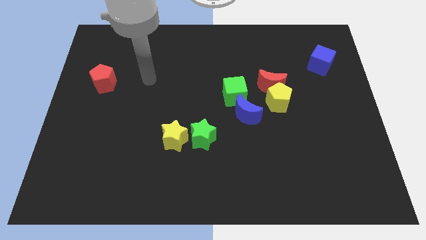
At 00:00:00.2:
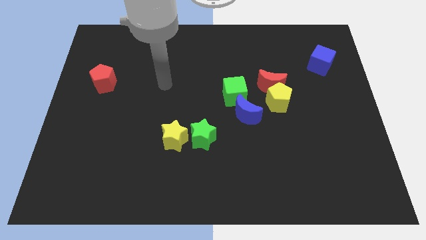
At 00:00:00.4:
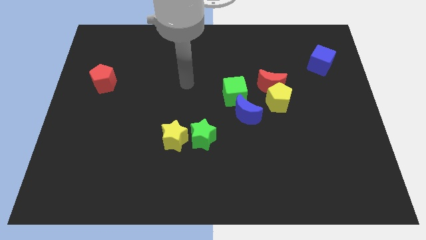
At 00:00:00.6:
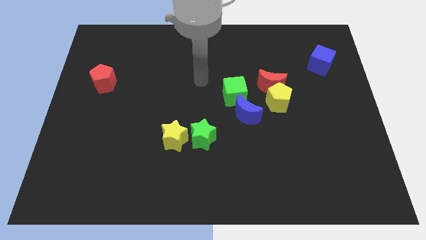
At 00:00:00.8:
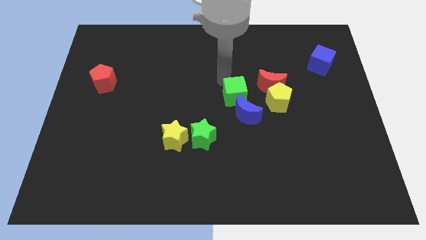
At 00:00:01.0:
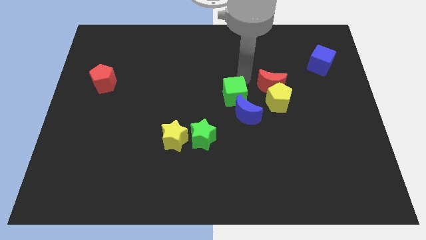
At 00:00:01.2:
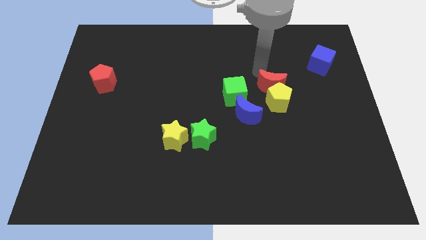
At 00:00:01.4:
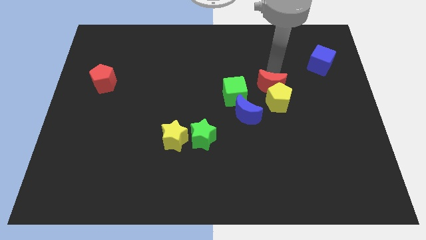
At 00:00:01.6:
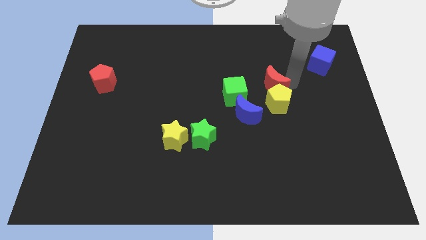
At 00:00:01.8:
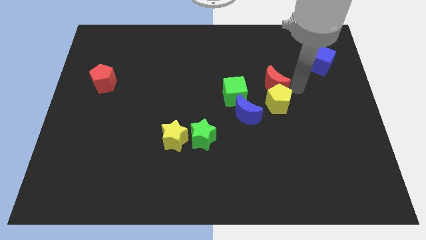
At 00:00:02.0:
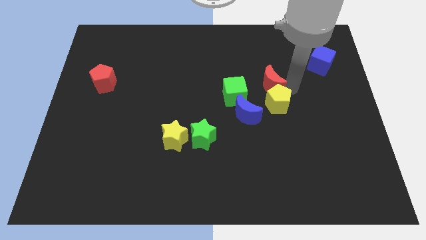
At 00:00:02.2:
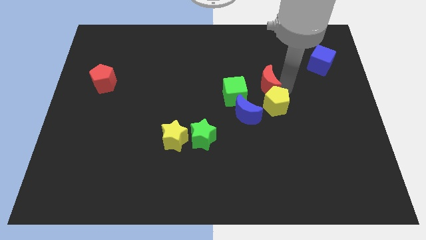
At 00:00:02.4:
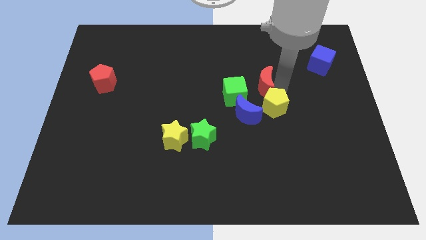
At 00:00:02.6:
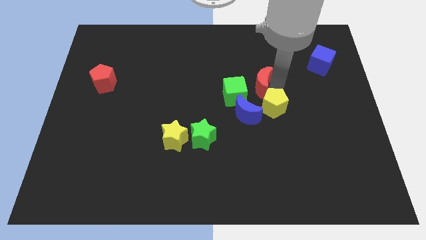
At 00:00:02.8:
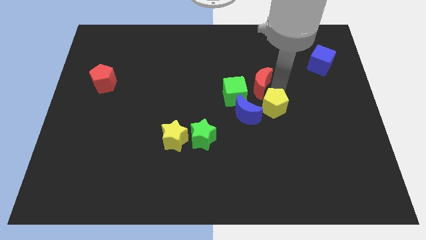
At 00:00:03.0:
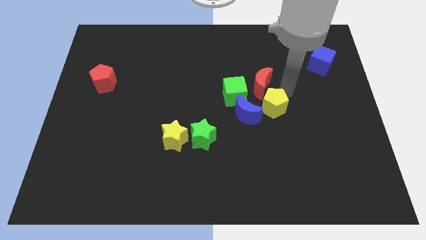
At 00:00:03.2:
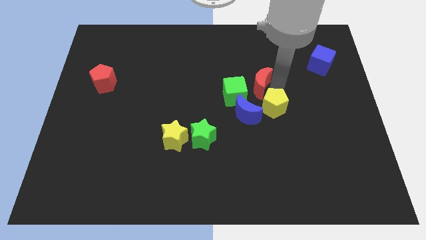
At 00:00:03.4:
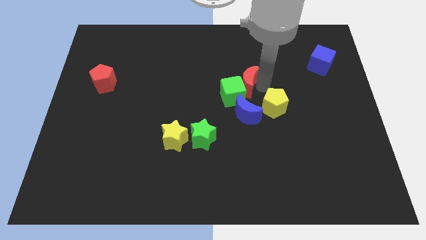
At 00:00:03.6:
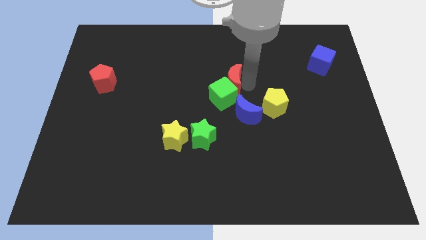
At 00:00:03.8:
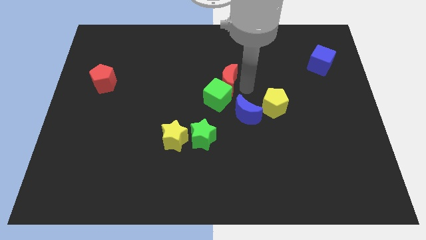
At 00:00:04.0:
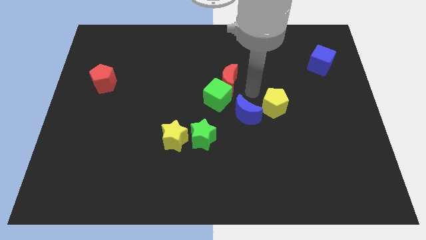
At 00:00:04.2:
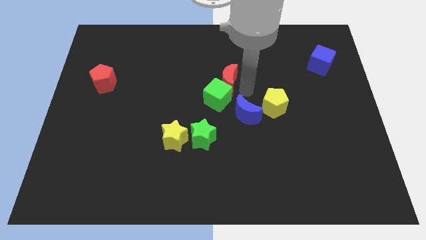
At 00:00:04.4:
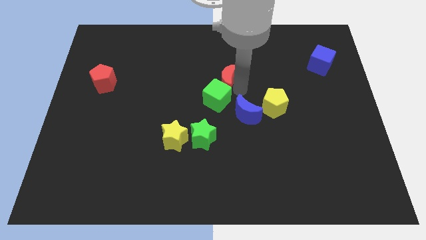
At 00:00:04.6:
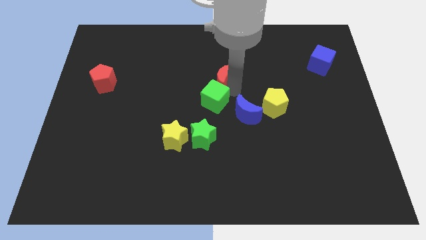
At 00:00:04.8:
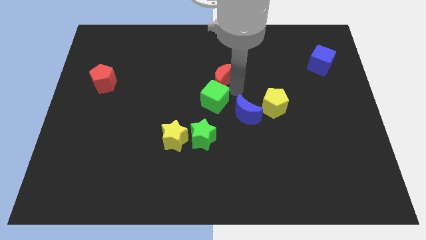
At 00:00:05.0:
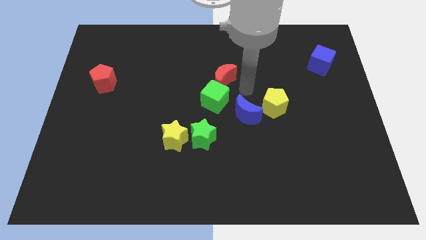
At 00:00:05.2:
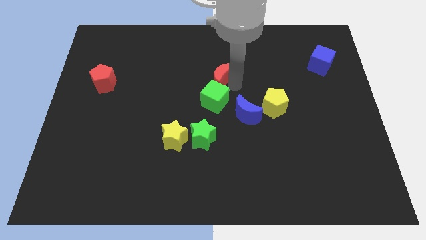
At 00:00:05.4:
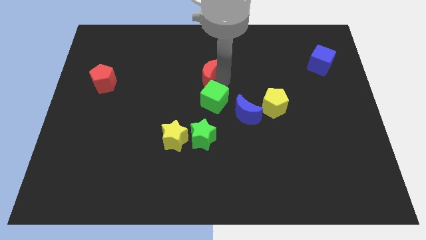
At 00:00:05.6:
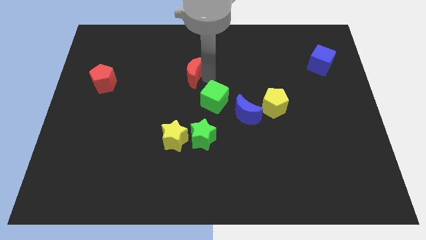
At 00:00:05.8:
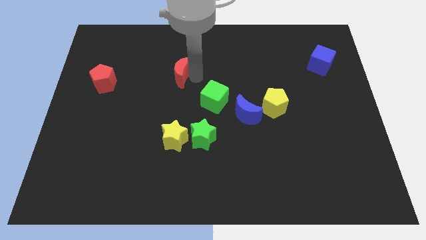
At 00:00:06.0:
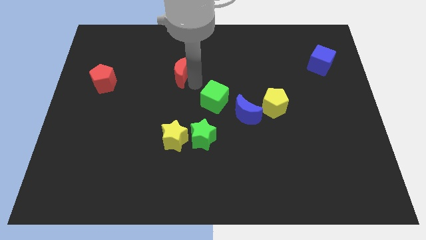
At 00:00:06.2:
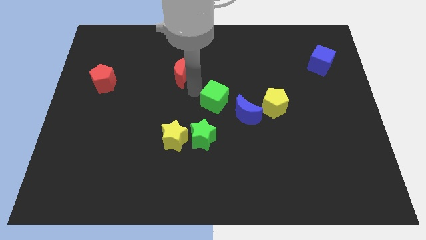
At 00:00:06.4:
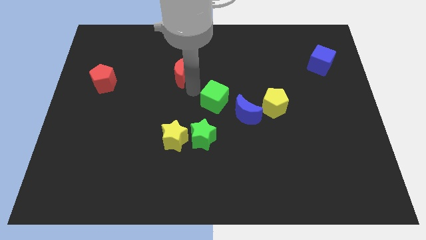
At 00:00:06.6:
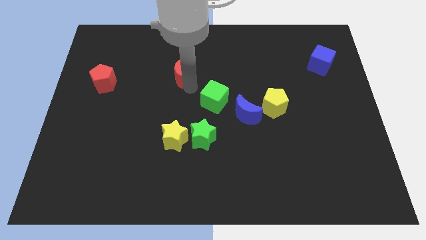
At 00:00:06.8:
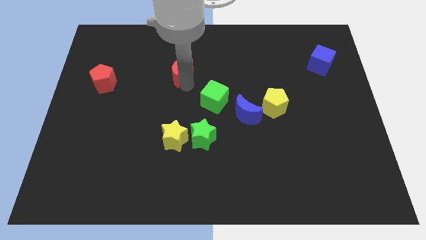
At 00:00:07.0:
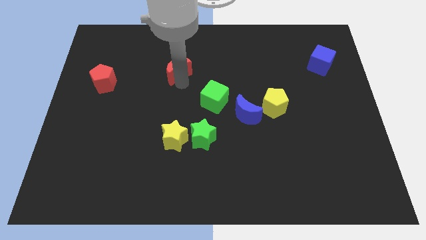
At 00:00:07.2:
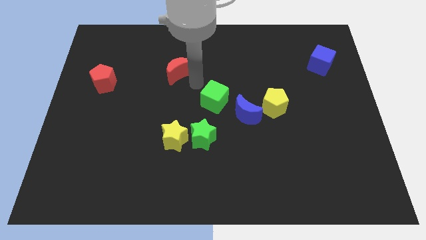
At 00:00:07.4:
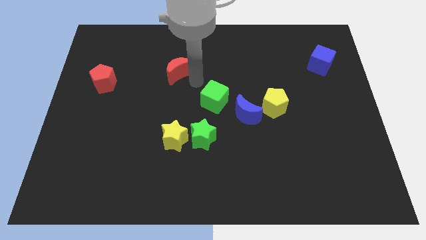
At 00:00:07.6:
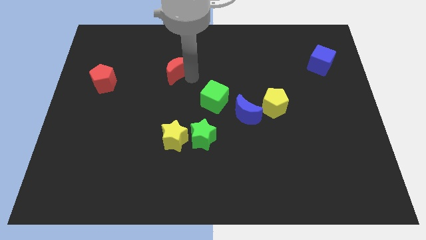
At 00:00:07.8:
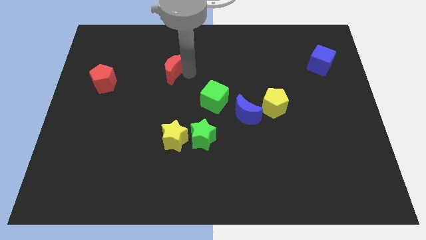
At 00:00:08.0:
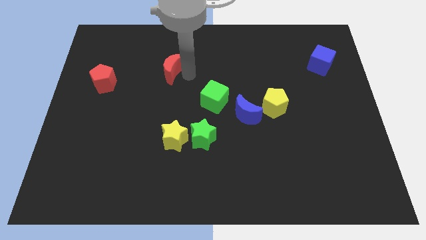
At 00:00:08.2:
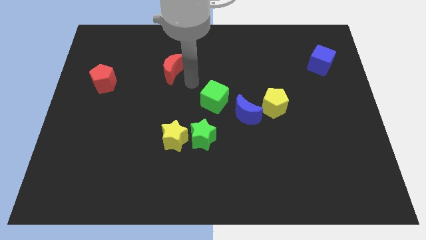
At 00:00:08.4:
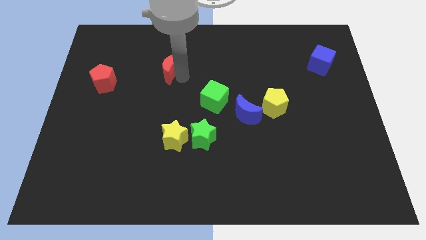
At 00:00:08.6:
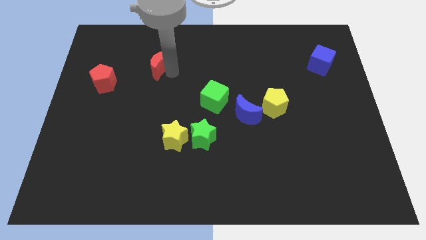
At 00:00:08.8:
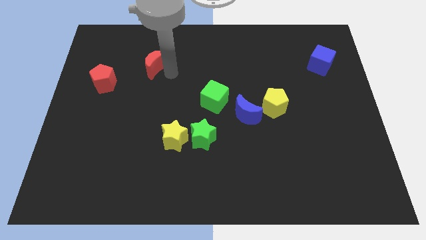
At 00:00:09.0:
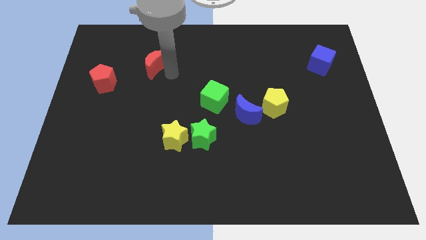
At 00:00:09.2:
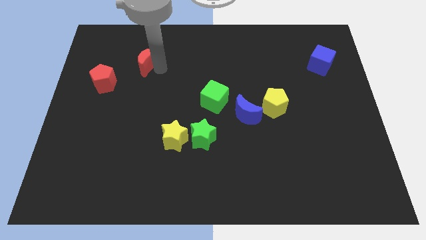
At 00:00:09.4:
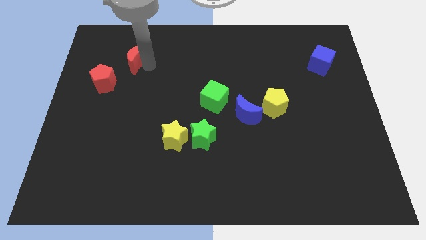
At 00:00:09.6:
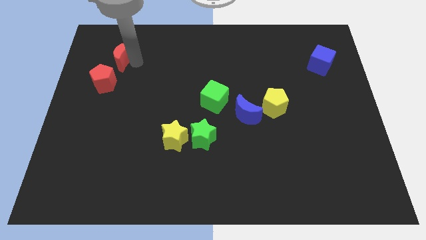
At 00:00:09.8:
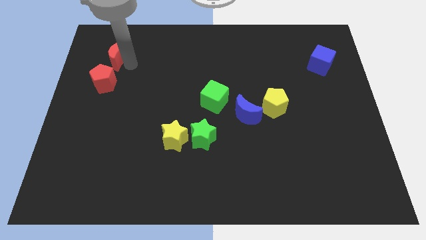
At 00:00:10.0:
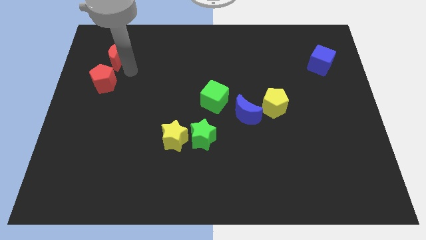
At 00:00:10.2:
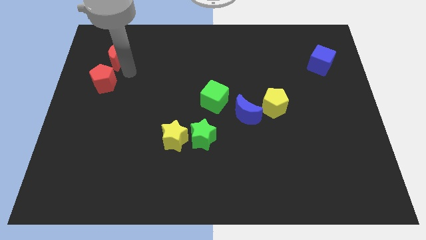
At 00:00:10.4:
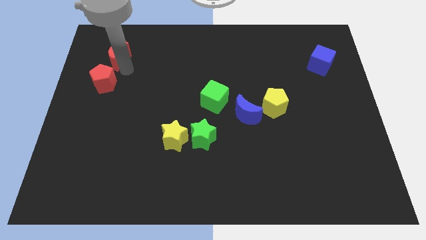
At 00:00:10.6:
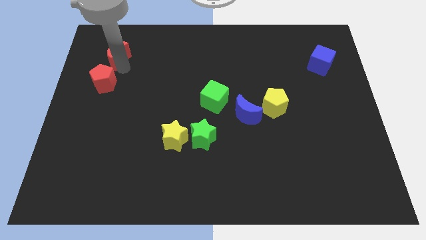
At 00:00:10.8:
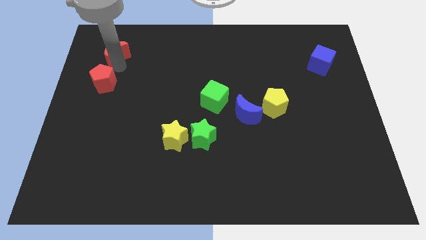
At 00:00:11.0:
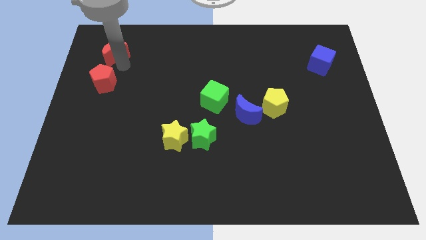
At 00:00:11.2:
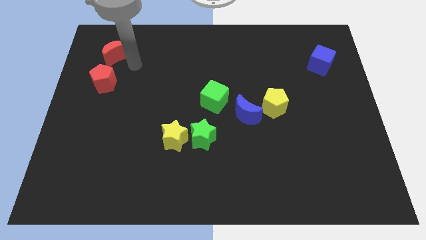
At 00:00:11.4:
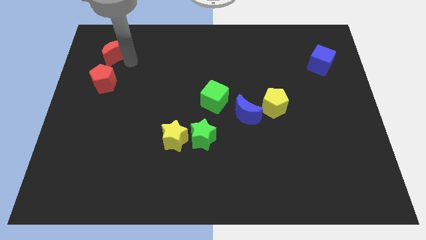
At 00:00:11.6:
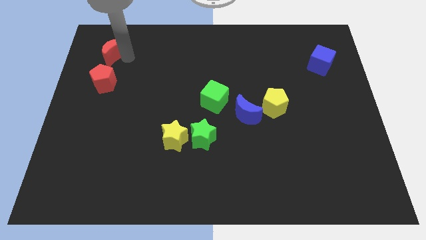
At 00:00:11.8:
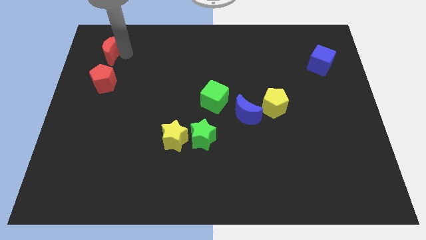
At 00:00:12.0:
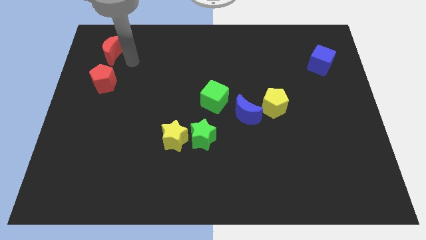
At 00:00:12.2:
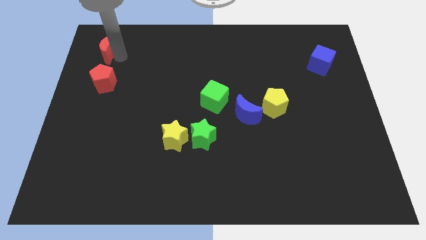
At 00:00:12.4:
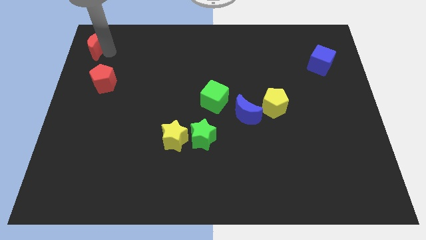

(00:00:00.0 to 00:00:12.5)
slide the red moon to the top left corner
